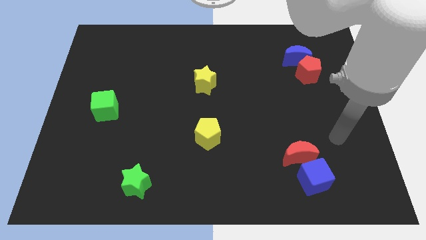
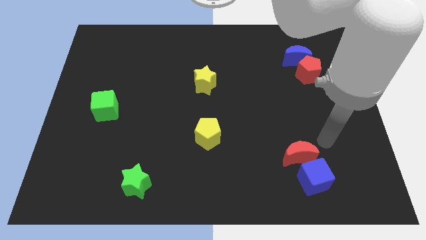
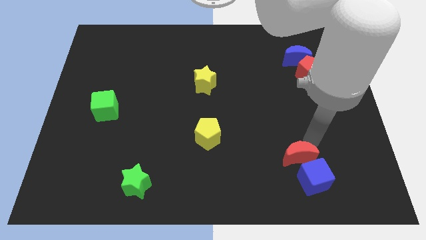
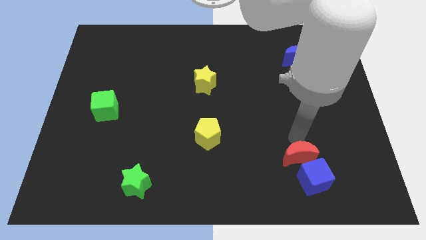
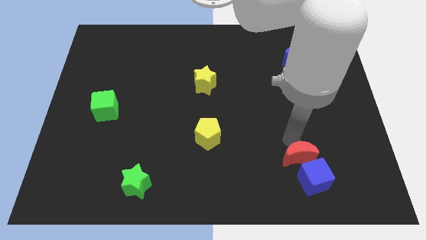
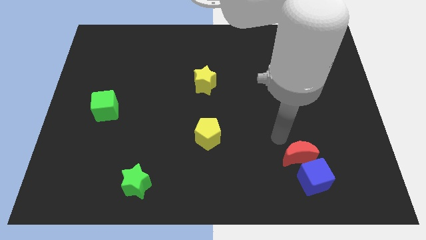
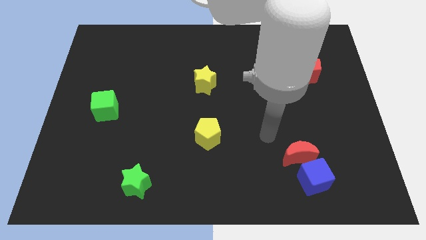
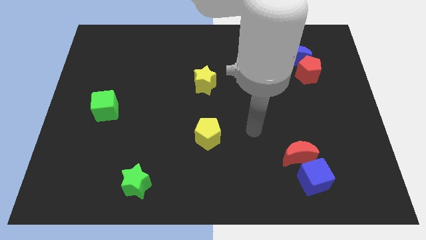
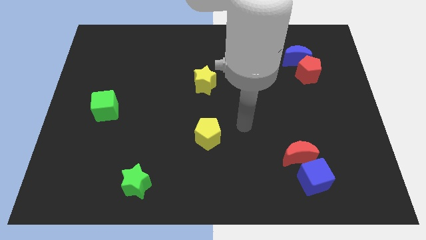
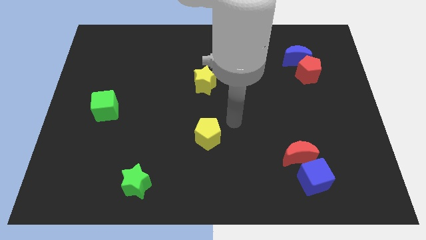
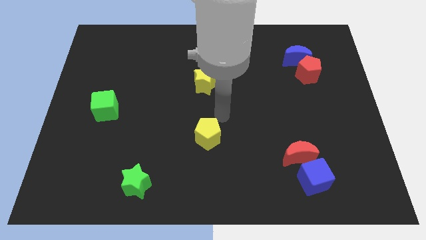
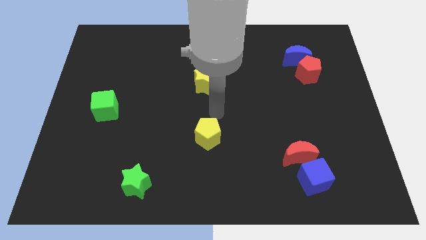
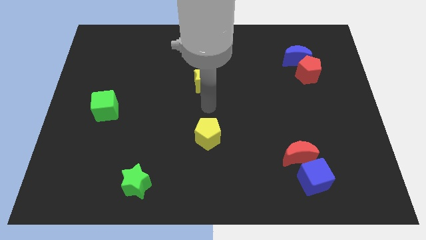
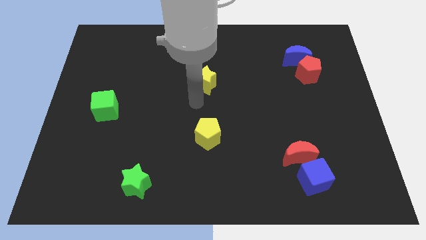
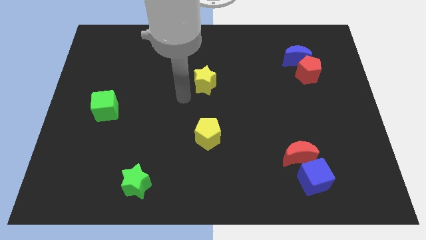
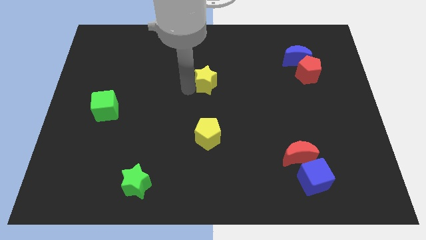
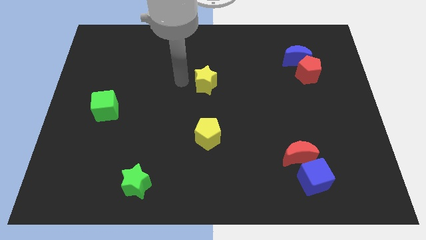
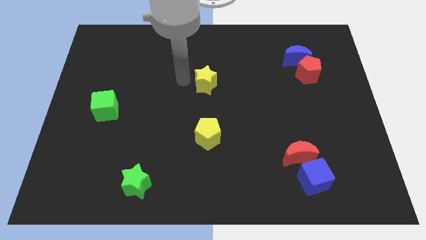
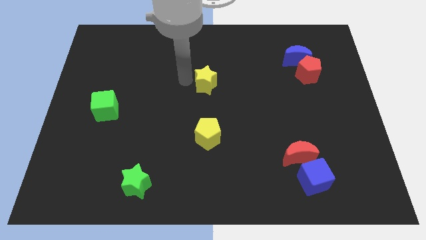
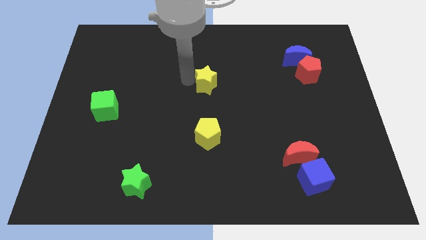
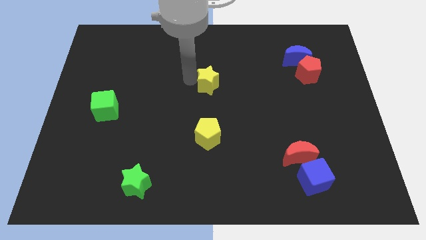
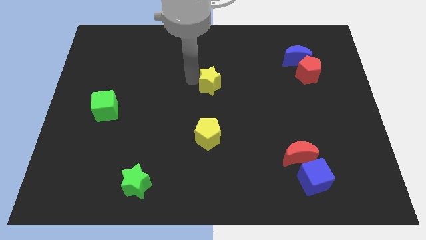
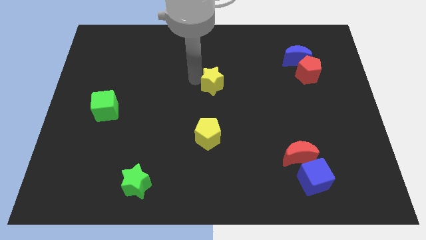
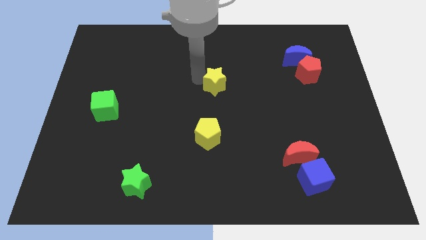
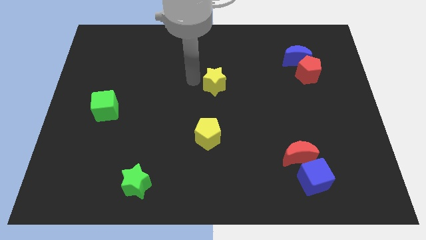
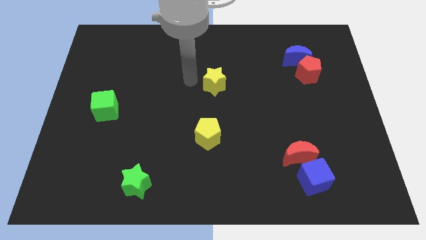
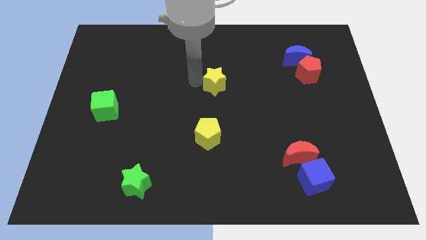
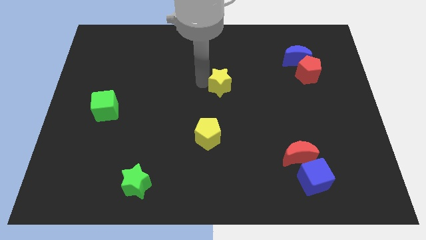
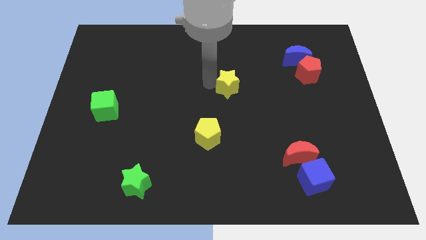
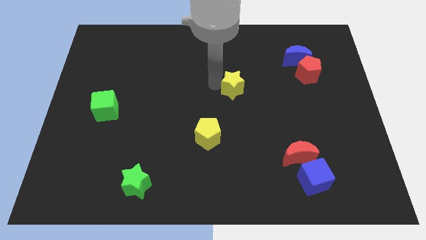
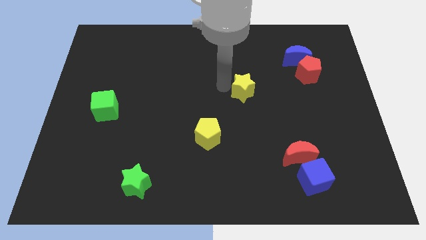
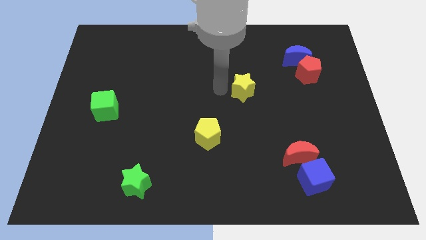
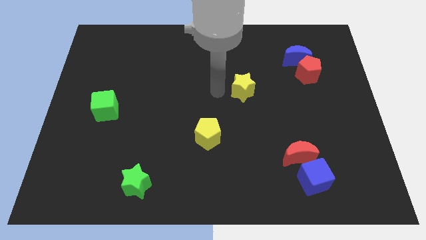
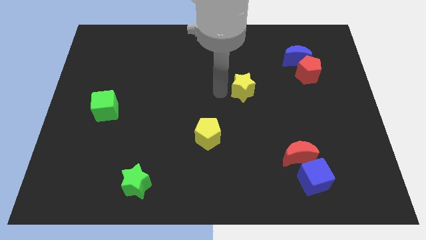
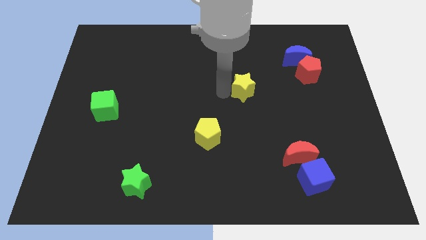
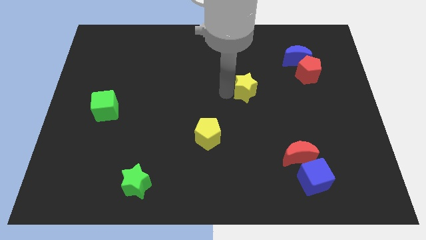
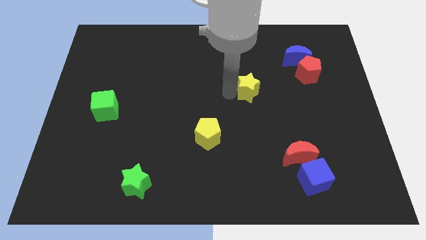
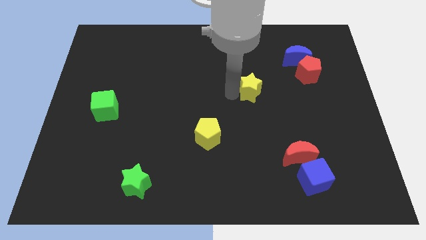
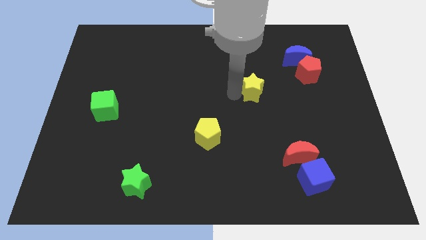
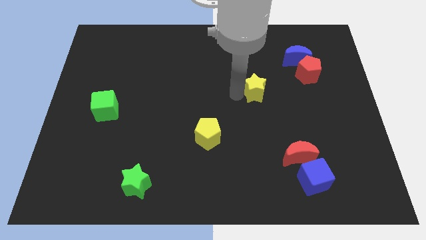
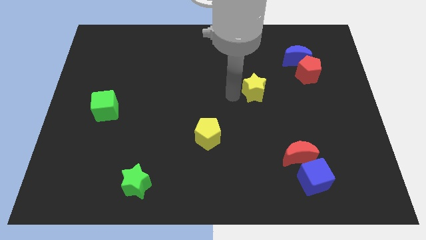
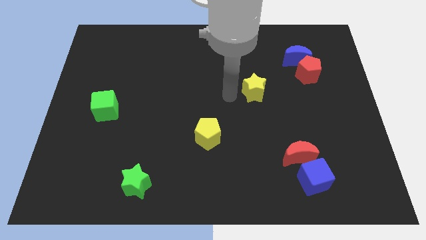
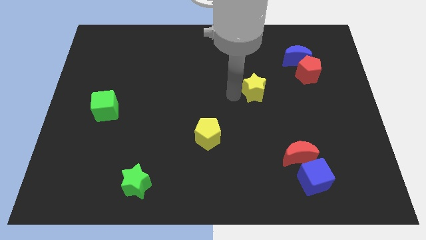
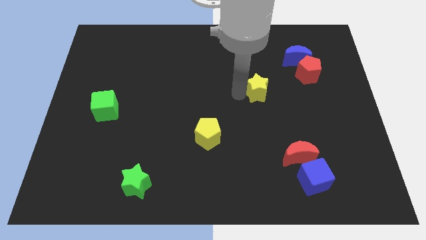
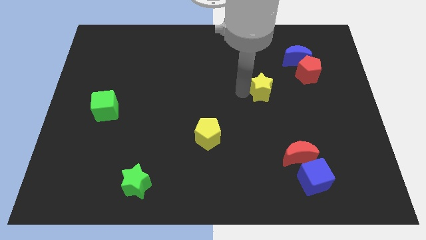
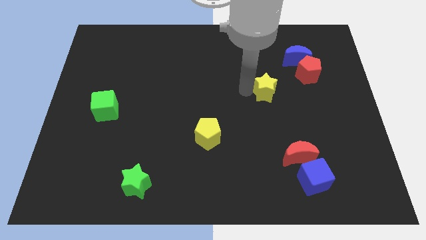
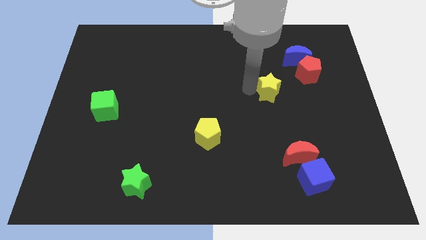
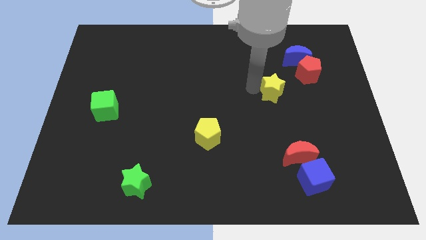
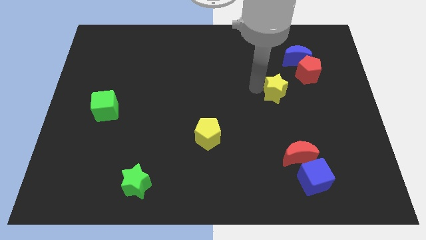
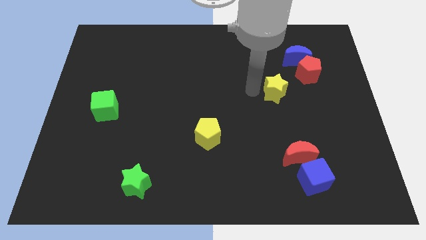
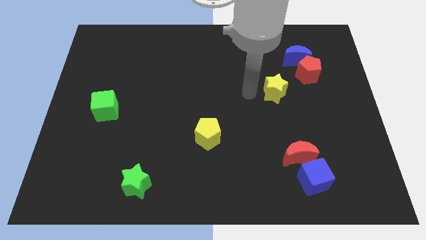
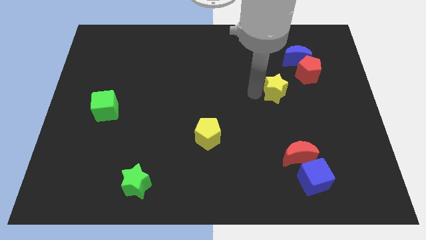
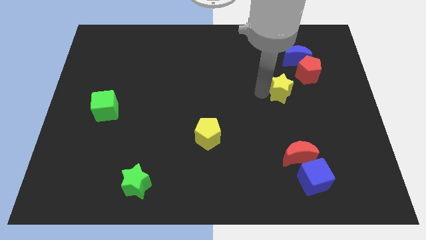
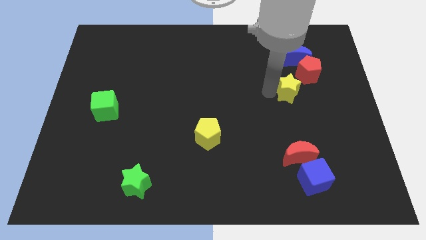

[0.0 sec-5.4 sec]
push the yellow star below the blue moon

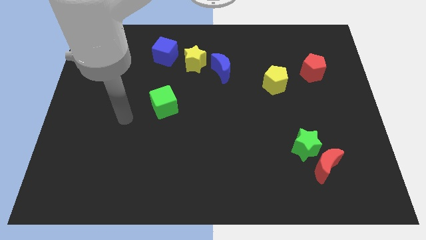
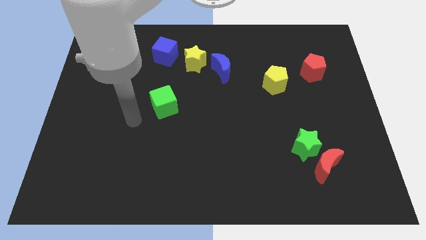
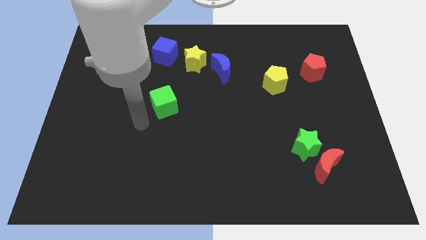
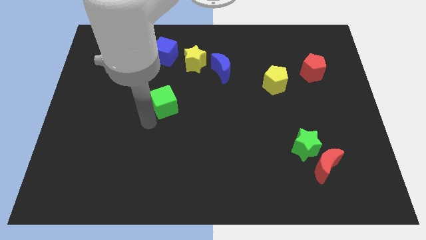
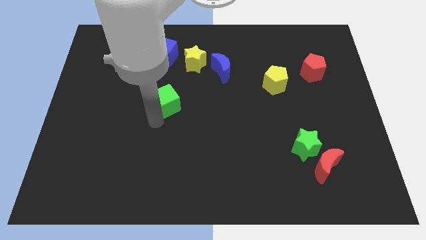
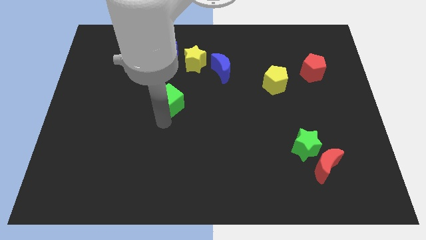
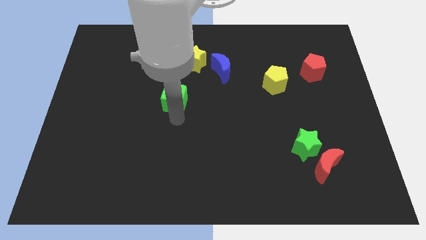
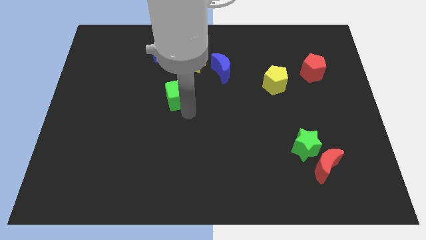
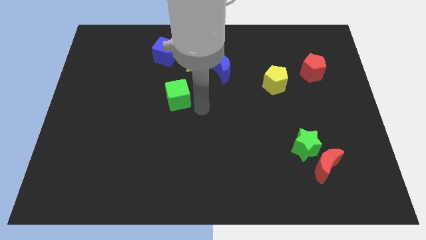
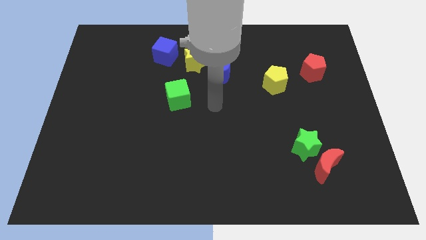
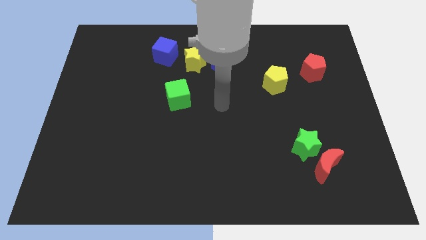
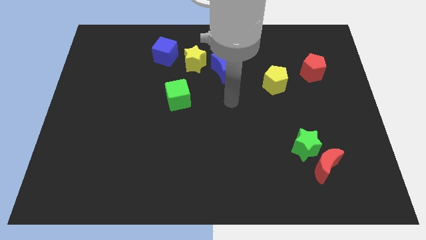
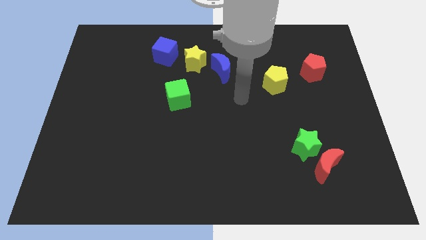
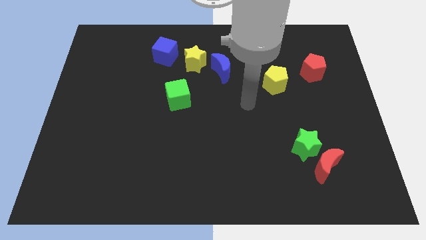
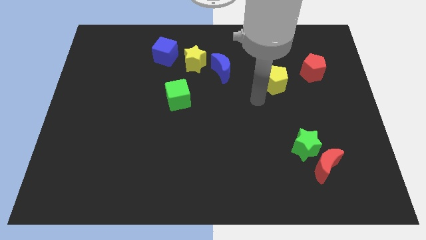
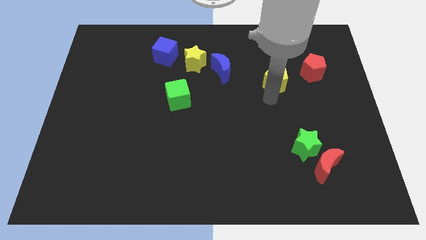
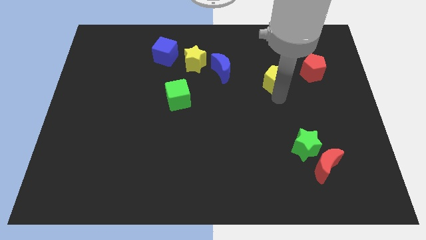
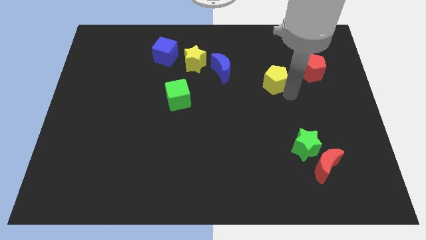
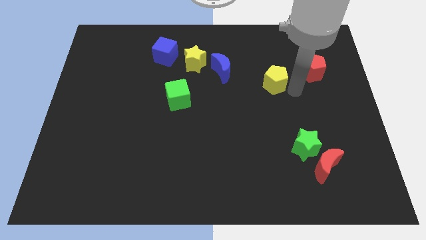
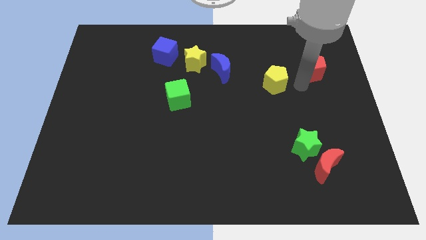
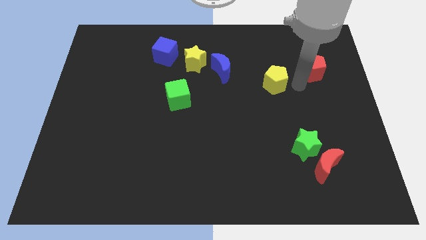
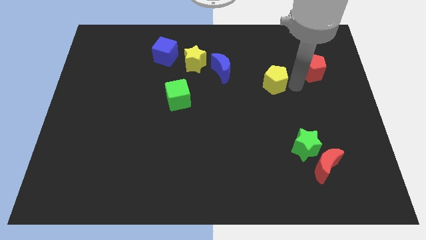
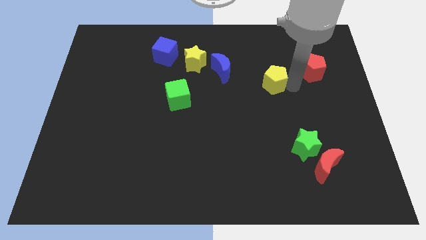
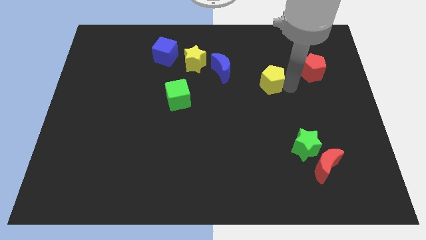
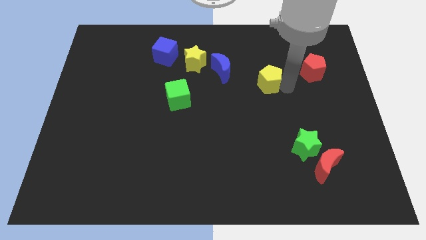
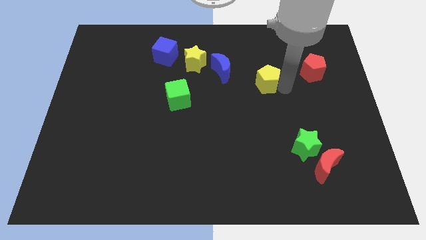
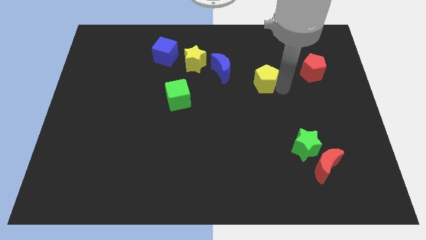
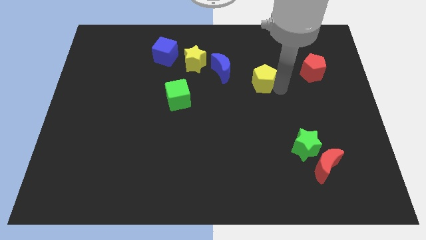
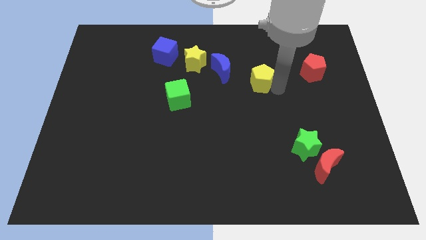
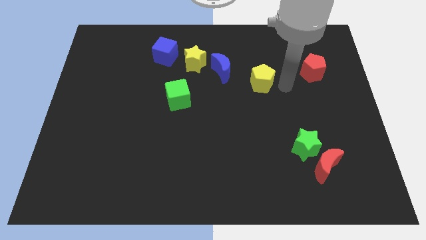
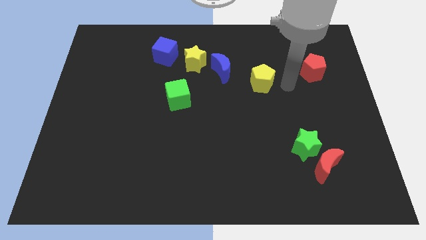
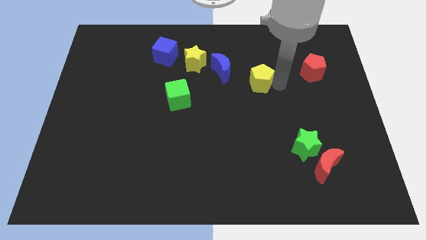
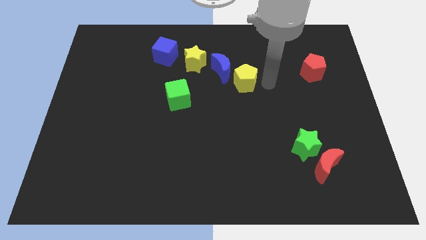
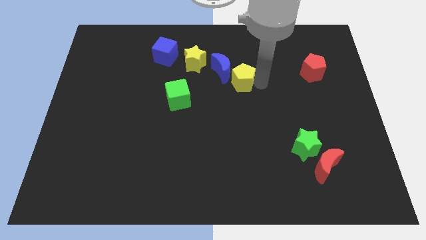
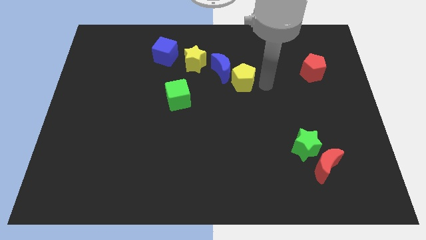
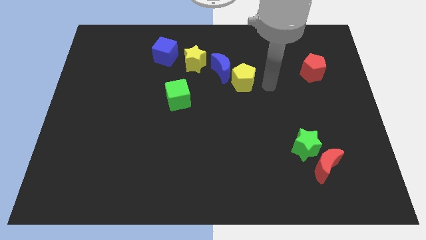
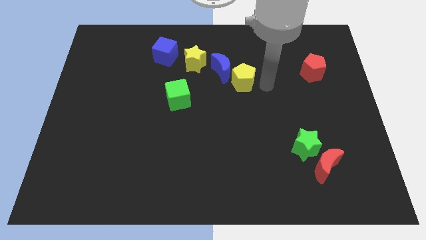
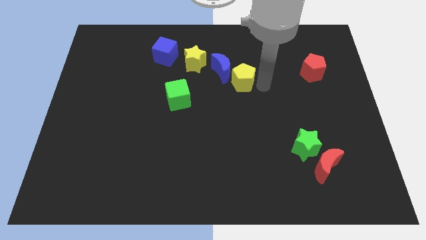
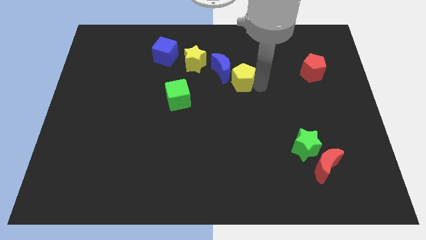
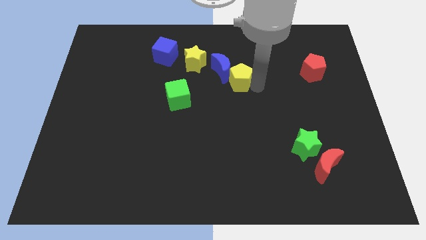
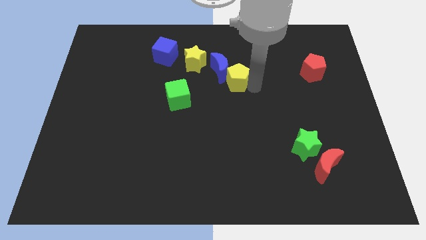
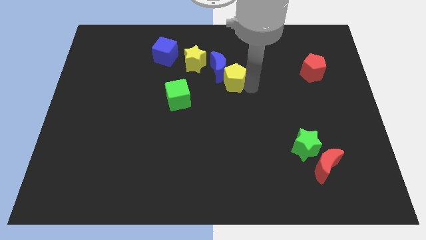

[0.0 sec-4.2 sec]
slide the yellow pentagon to the bottom right side of the yellow star
